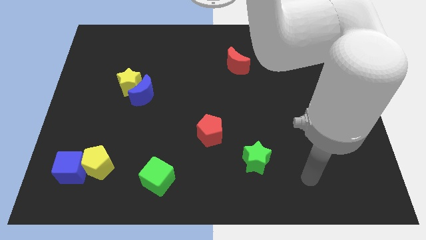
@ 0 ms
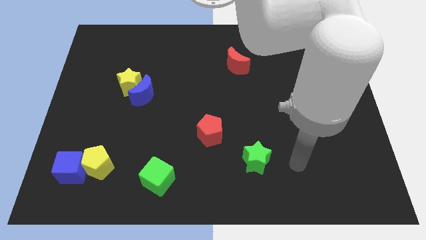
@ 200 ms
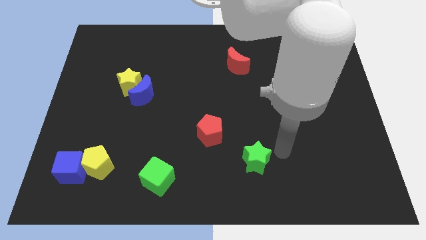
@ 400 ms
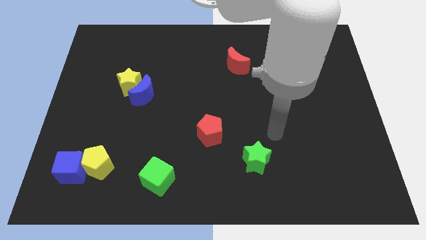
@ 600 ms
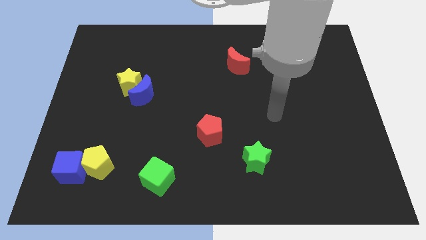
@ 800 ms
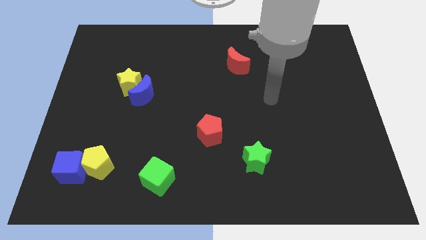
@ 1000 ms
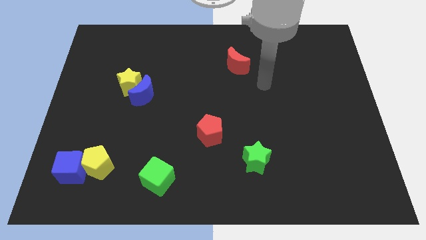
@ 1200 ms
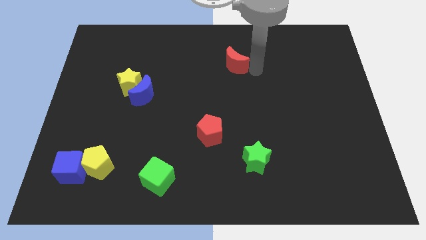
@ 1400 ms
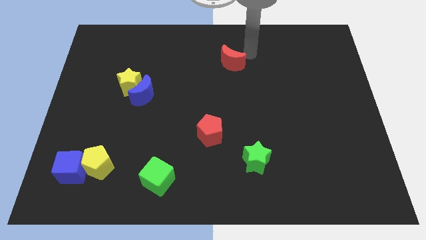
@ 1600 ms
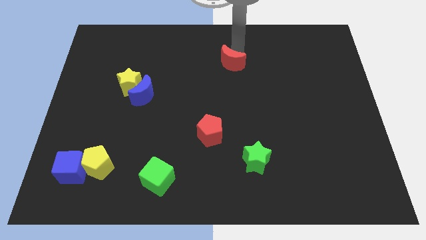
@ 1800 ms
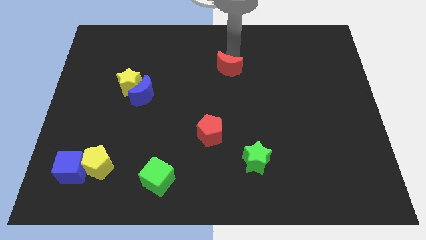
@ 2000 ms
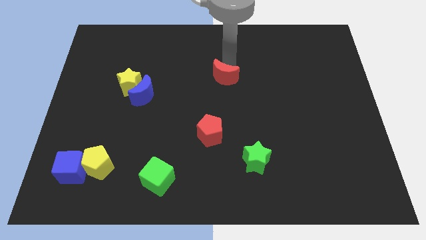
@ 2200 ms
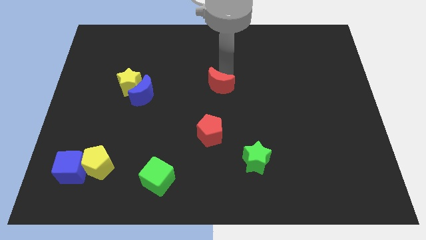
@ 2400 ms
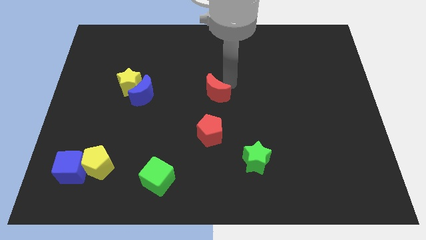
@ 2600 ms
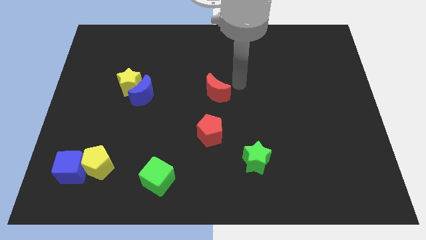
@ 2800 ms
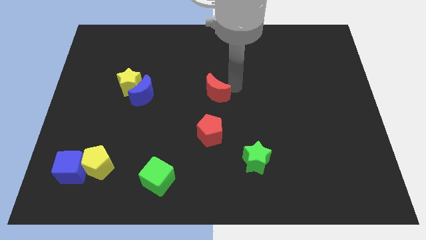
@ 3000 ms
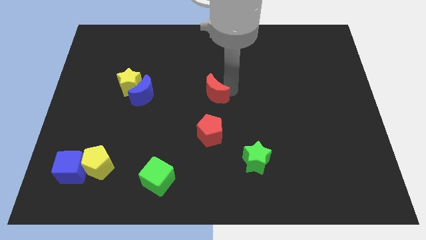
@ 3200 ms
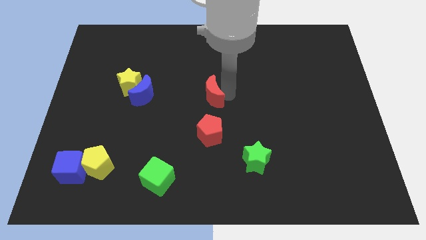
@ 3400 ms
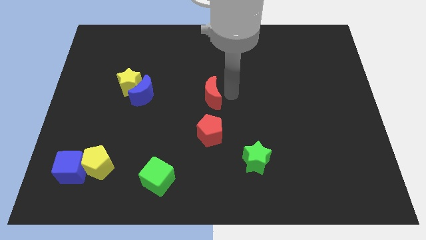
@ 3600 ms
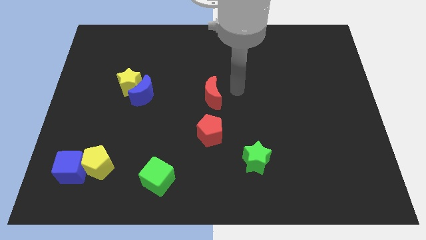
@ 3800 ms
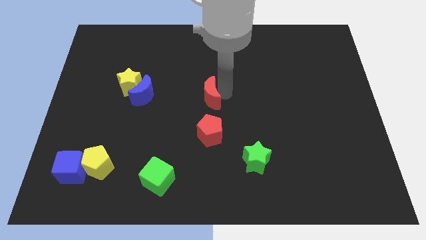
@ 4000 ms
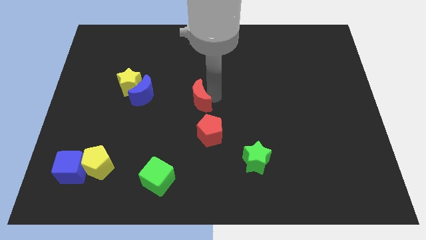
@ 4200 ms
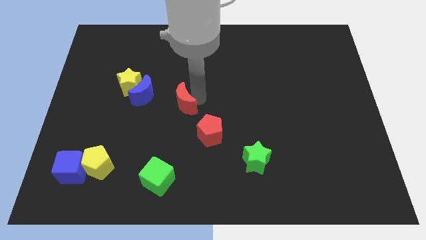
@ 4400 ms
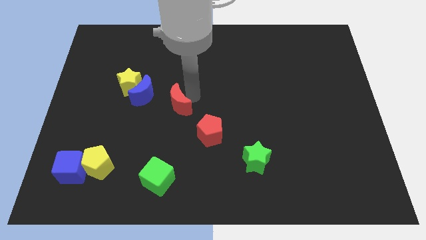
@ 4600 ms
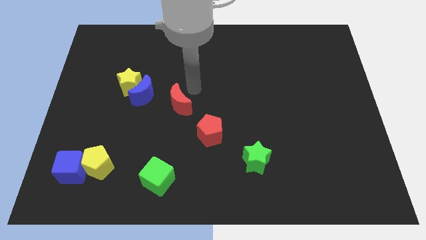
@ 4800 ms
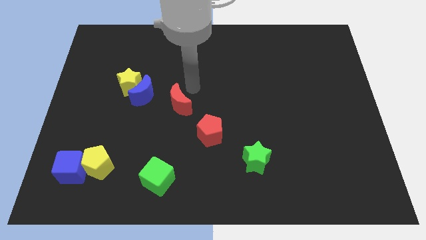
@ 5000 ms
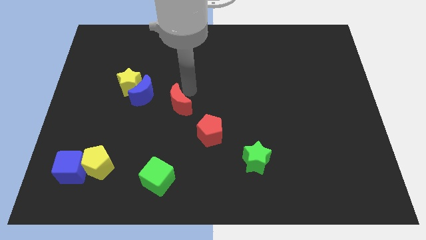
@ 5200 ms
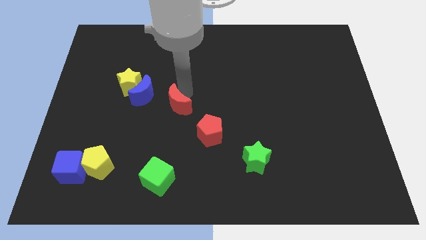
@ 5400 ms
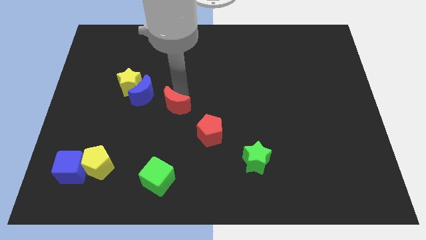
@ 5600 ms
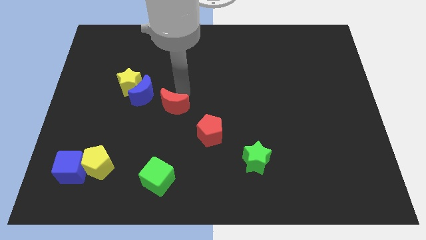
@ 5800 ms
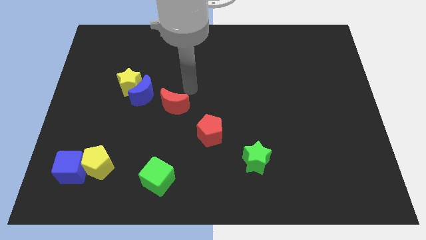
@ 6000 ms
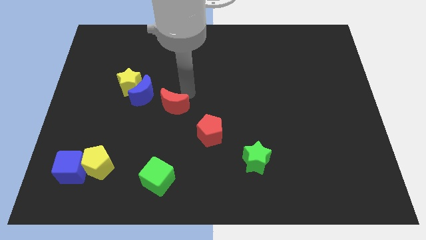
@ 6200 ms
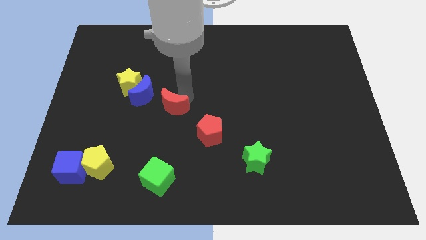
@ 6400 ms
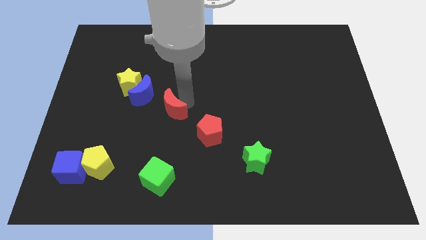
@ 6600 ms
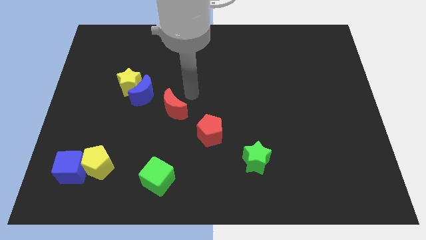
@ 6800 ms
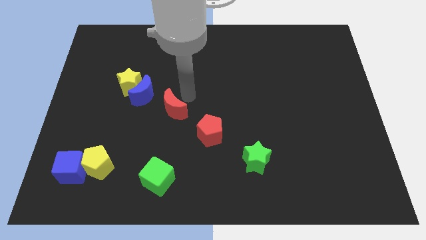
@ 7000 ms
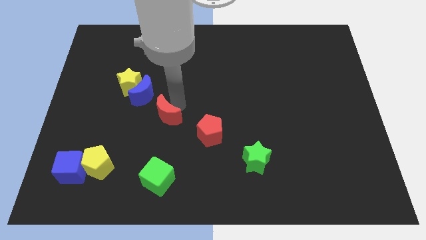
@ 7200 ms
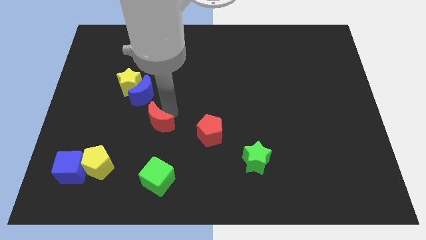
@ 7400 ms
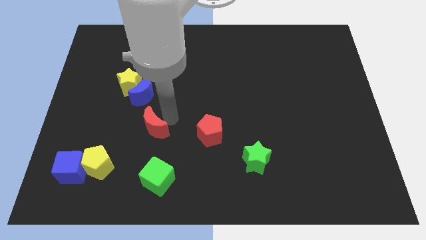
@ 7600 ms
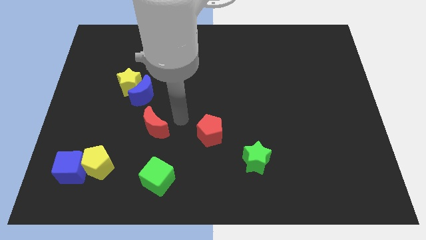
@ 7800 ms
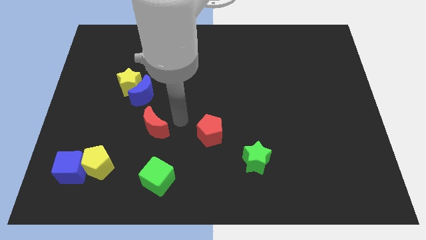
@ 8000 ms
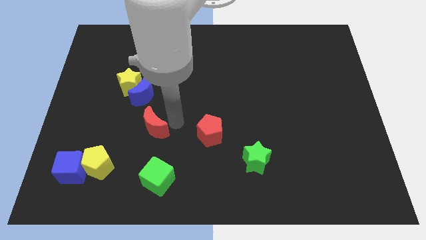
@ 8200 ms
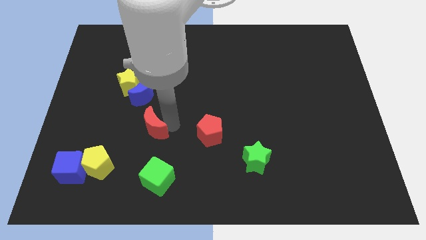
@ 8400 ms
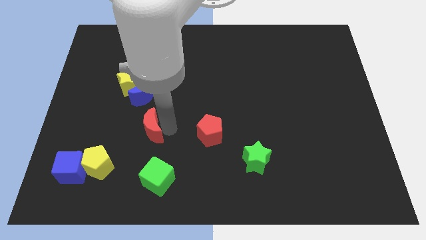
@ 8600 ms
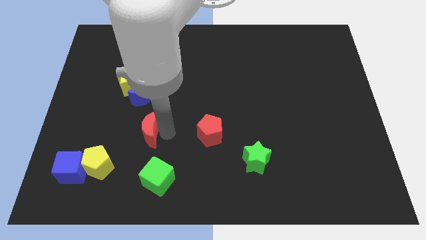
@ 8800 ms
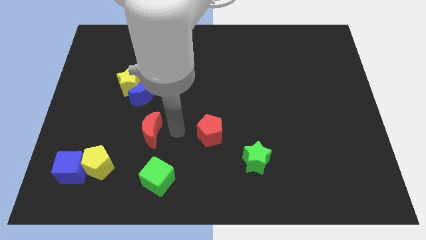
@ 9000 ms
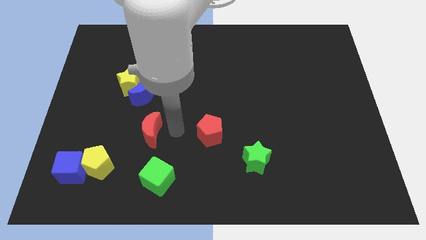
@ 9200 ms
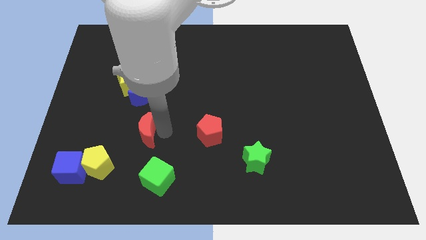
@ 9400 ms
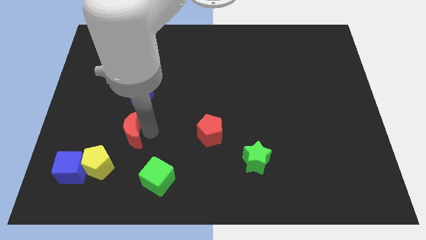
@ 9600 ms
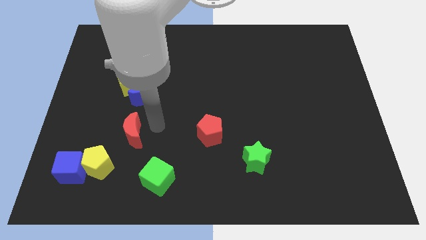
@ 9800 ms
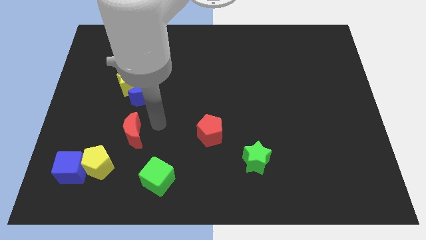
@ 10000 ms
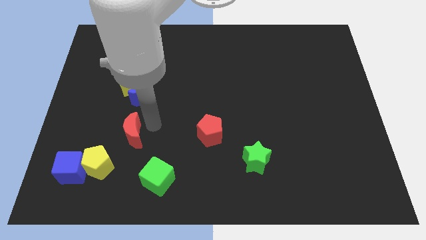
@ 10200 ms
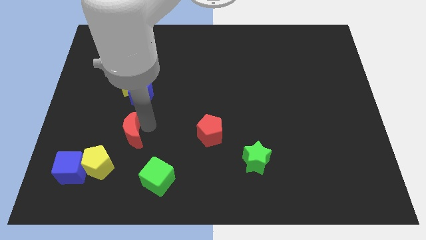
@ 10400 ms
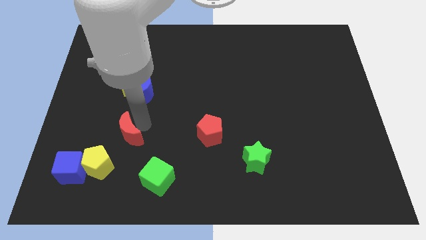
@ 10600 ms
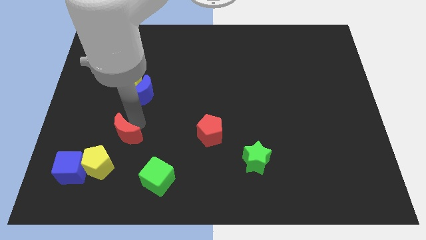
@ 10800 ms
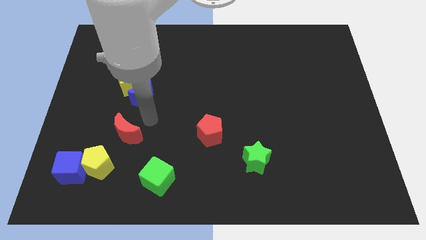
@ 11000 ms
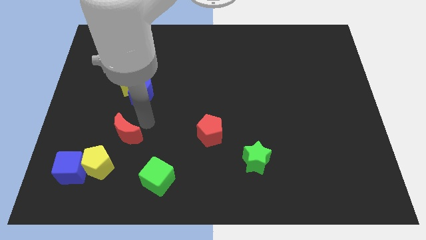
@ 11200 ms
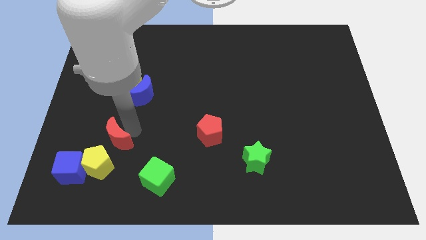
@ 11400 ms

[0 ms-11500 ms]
slide the red moon diagonally up and to the right of the blue cube

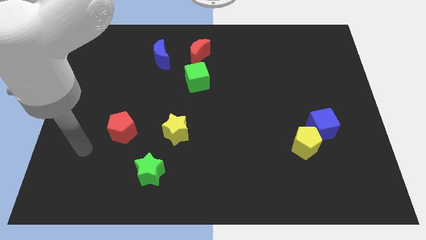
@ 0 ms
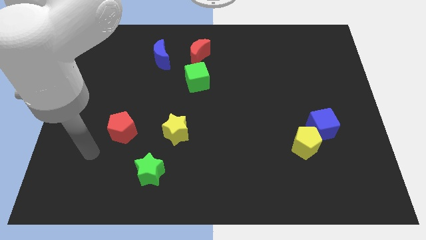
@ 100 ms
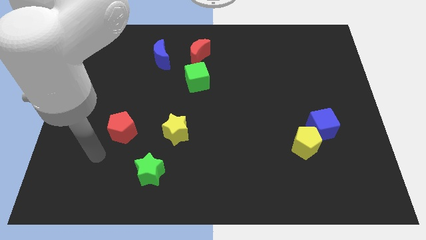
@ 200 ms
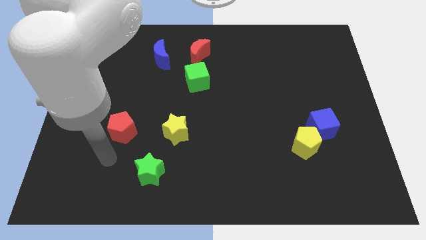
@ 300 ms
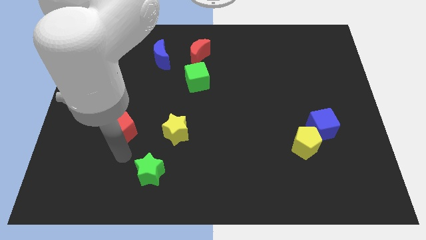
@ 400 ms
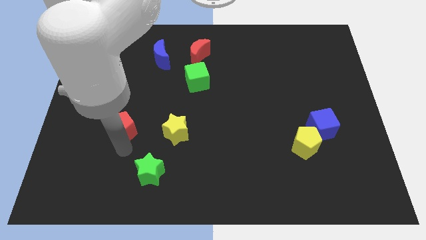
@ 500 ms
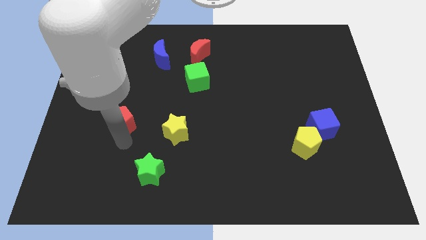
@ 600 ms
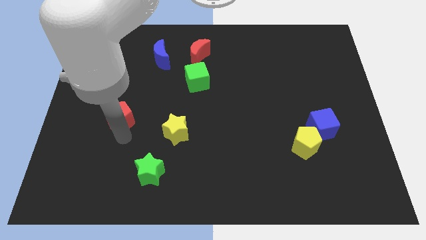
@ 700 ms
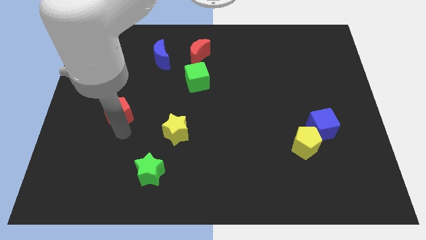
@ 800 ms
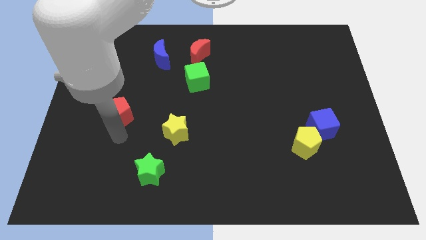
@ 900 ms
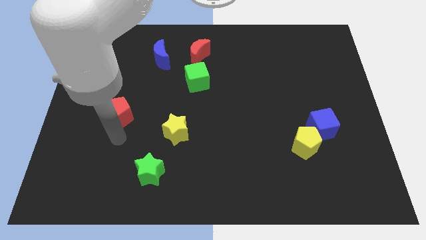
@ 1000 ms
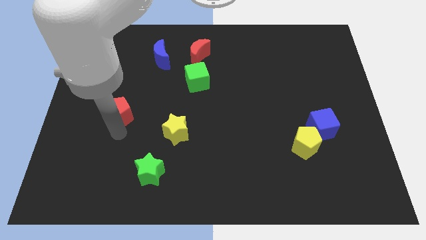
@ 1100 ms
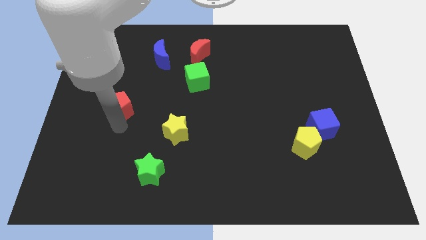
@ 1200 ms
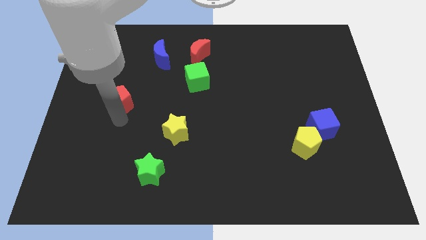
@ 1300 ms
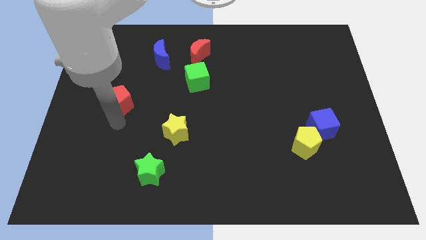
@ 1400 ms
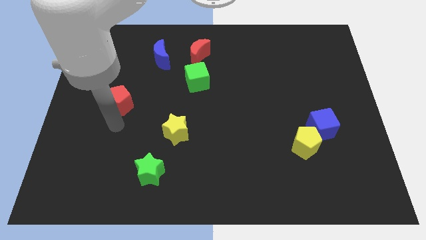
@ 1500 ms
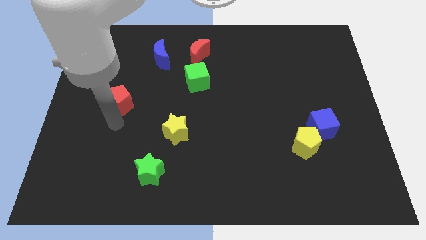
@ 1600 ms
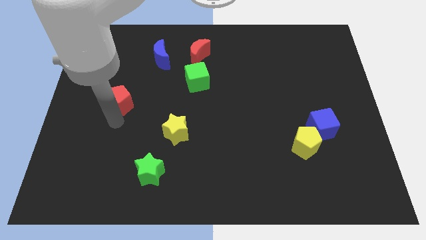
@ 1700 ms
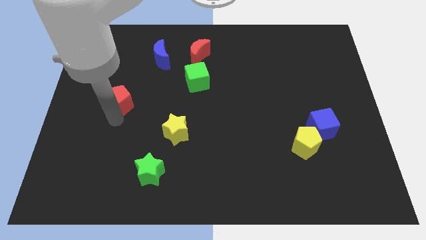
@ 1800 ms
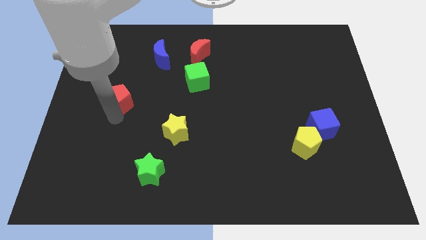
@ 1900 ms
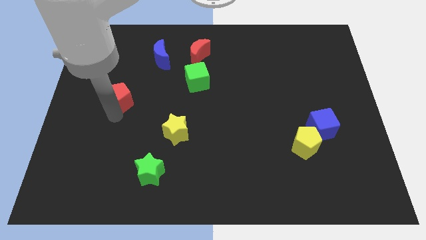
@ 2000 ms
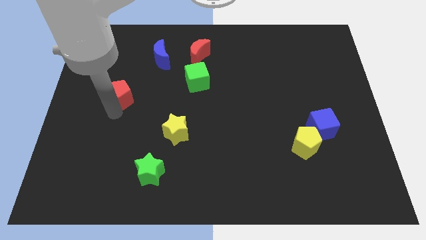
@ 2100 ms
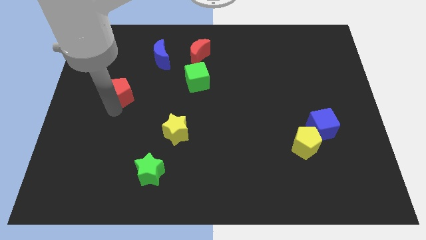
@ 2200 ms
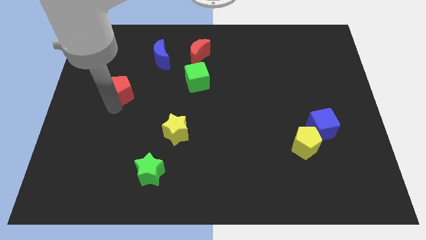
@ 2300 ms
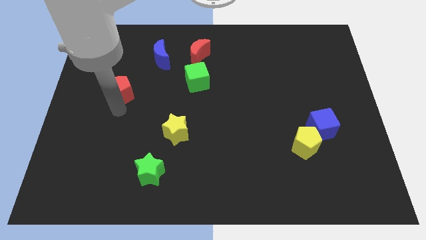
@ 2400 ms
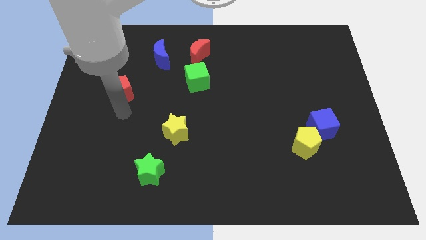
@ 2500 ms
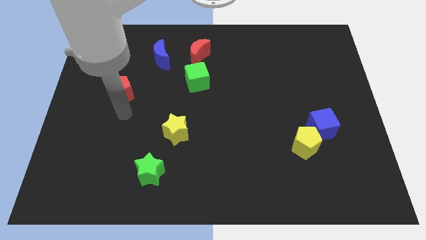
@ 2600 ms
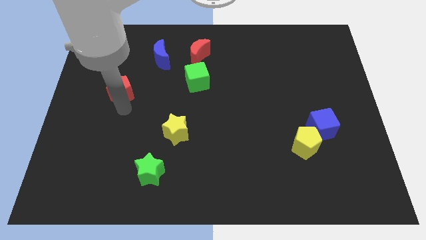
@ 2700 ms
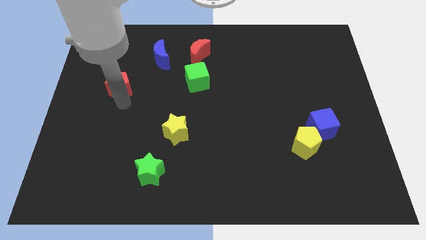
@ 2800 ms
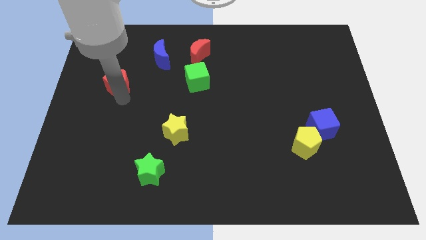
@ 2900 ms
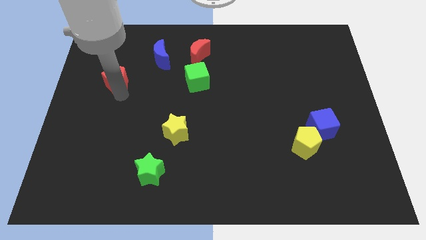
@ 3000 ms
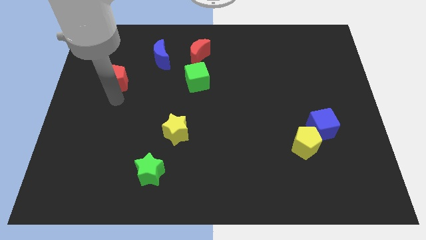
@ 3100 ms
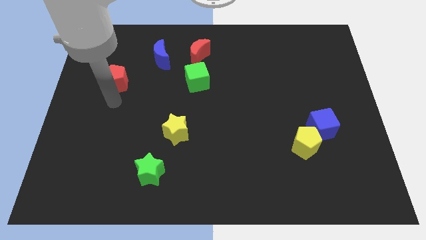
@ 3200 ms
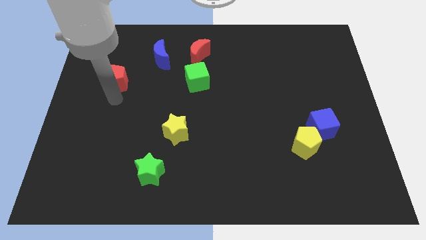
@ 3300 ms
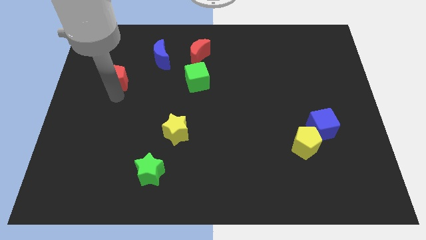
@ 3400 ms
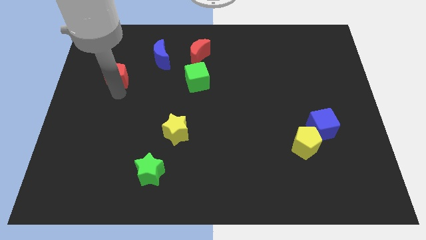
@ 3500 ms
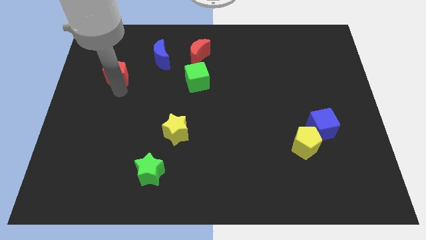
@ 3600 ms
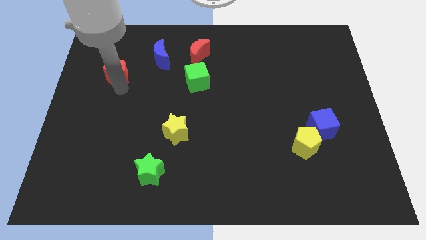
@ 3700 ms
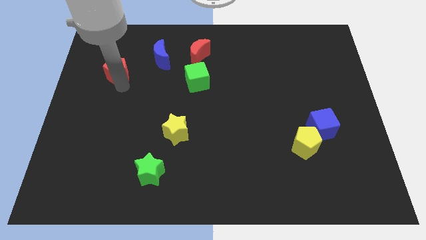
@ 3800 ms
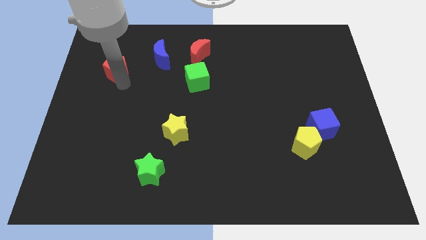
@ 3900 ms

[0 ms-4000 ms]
put the red pentagon left of the blue moon
